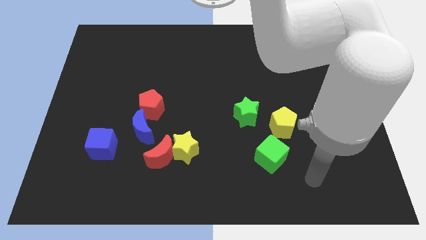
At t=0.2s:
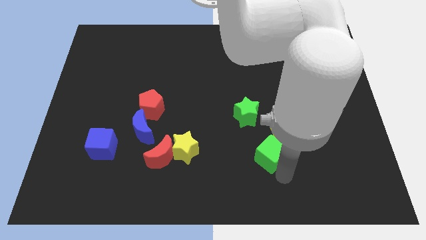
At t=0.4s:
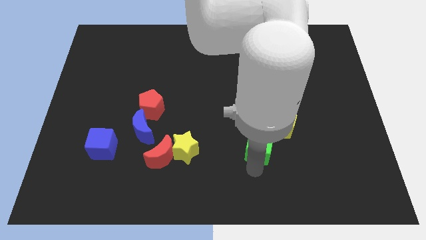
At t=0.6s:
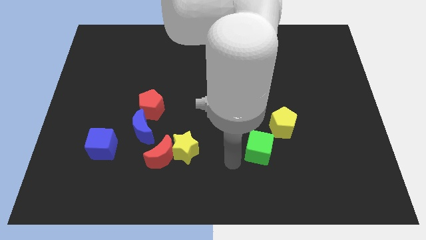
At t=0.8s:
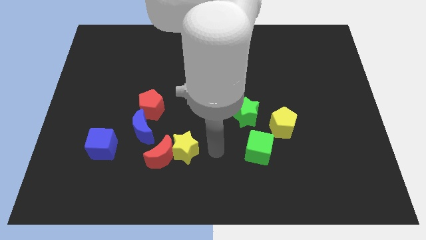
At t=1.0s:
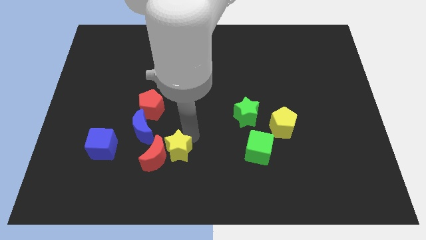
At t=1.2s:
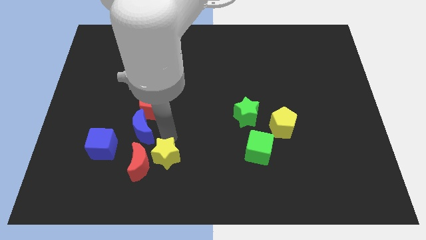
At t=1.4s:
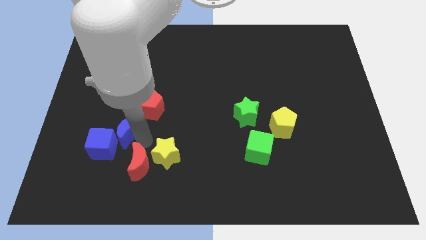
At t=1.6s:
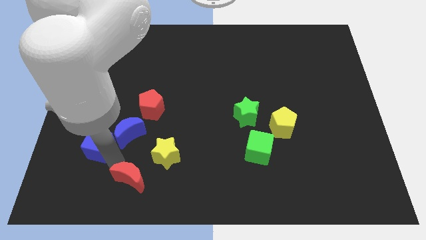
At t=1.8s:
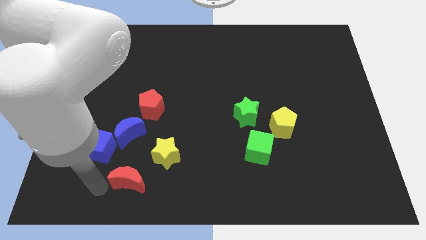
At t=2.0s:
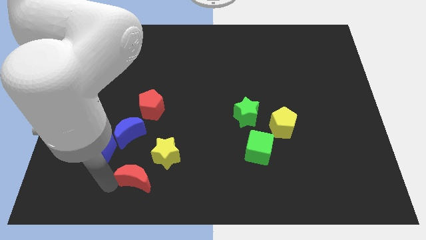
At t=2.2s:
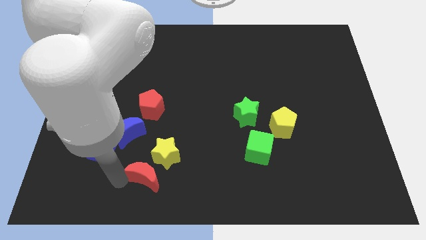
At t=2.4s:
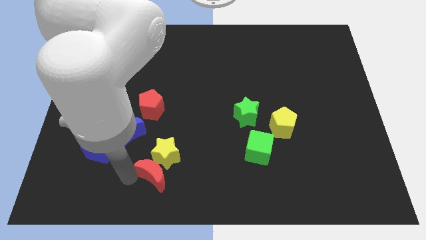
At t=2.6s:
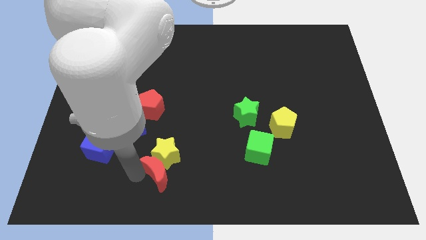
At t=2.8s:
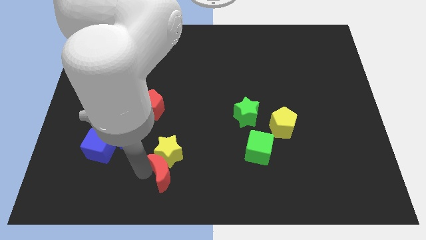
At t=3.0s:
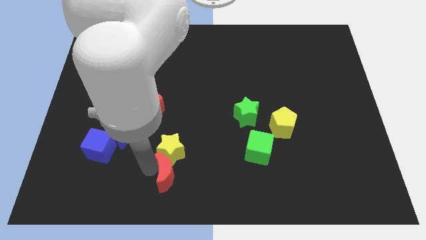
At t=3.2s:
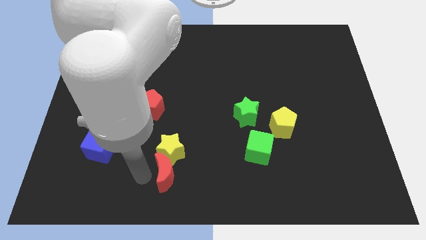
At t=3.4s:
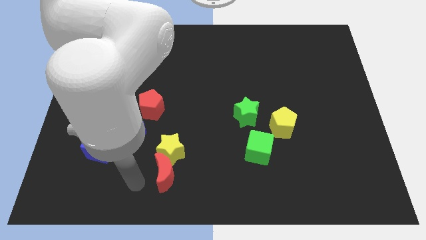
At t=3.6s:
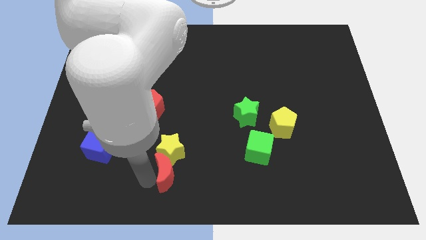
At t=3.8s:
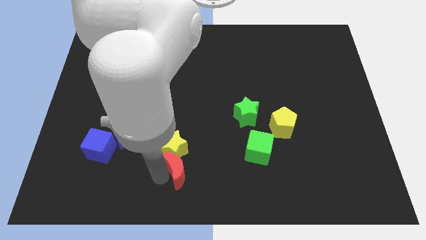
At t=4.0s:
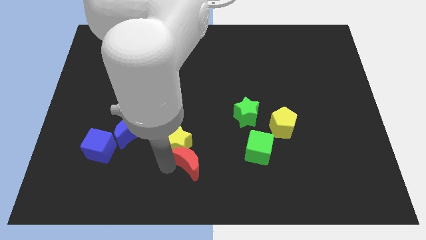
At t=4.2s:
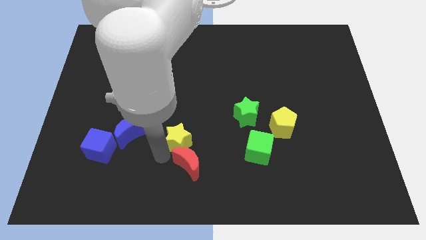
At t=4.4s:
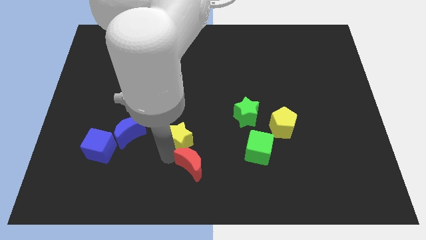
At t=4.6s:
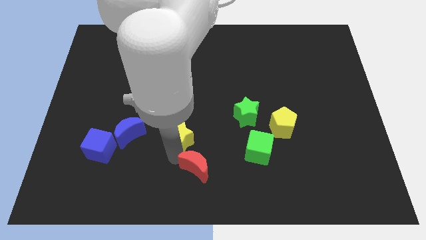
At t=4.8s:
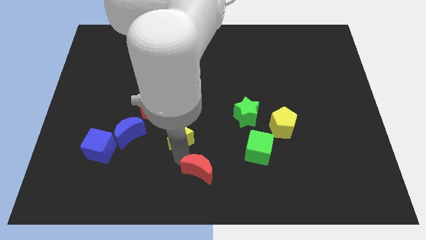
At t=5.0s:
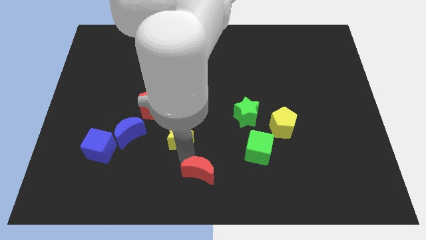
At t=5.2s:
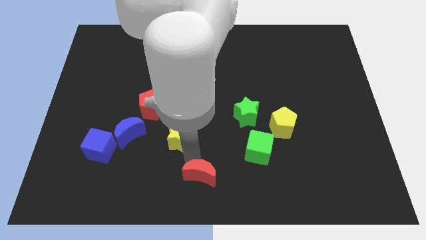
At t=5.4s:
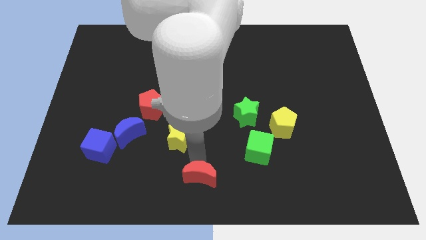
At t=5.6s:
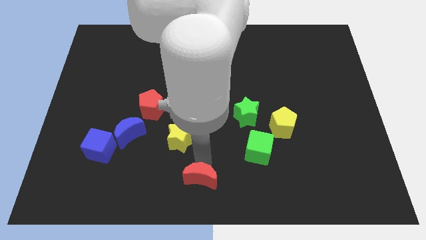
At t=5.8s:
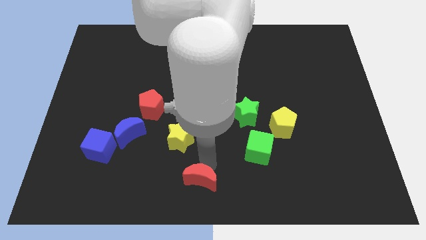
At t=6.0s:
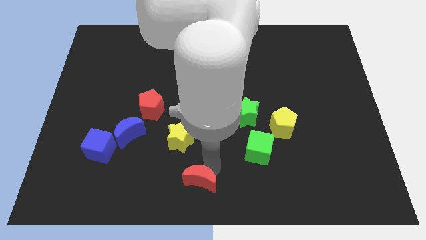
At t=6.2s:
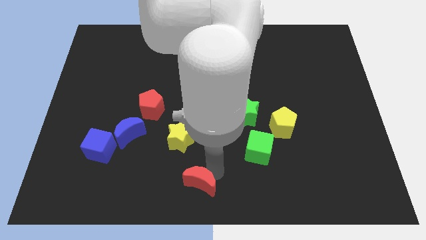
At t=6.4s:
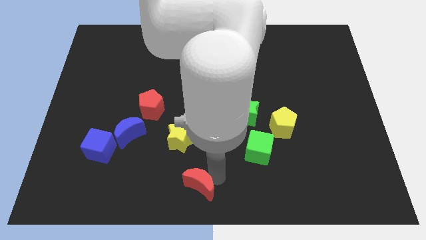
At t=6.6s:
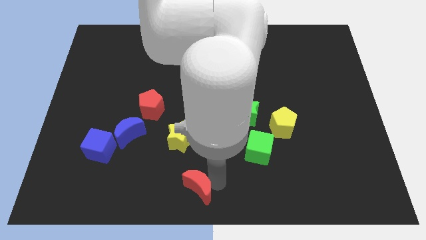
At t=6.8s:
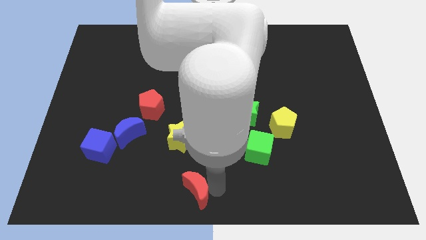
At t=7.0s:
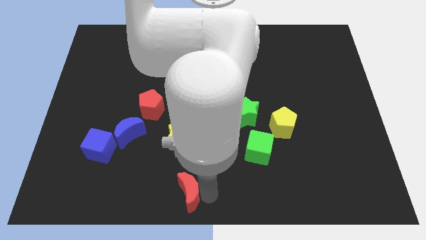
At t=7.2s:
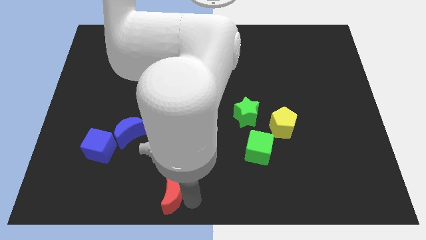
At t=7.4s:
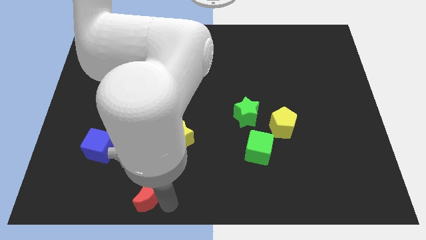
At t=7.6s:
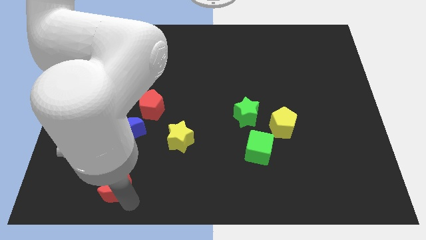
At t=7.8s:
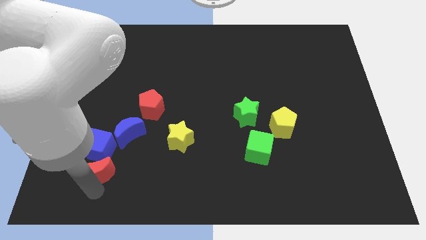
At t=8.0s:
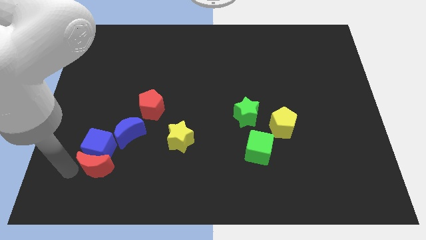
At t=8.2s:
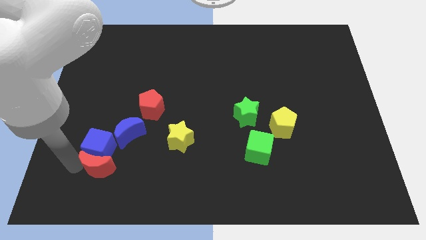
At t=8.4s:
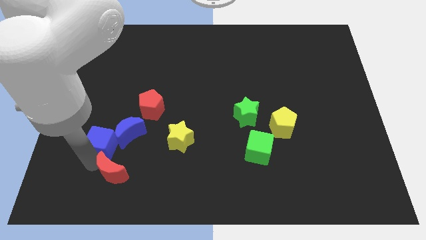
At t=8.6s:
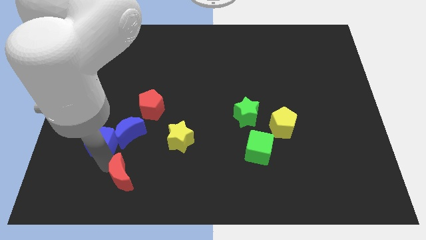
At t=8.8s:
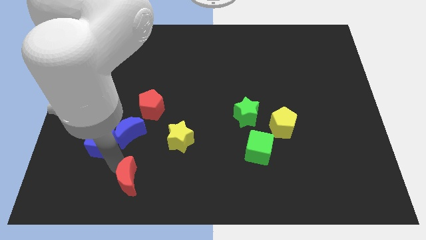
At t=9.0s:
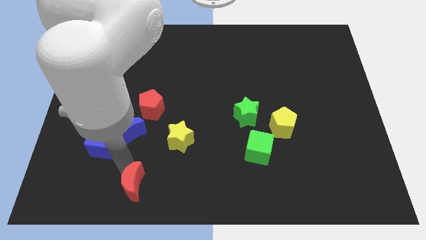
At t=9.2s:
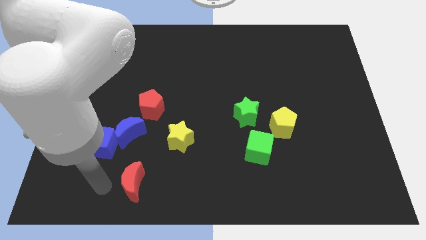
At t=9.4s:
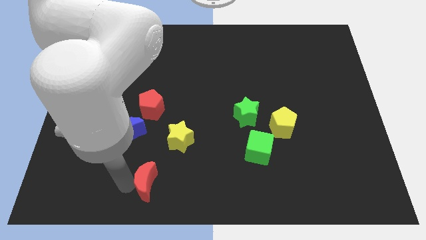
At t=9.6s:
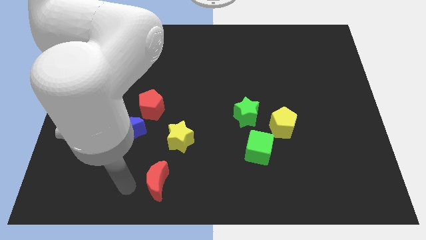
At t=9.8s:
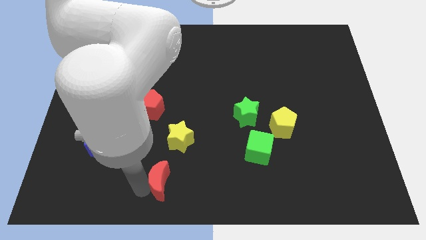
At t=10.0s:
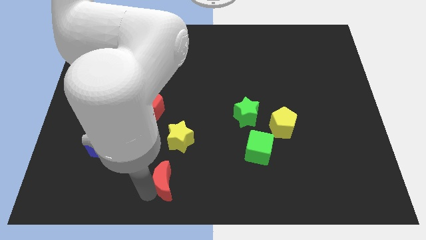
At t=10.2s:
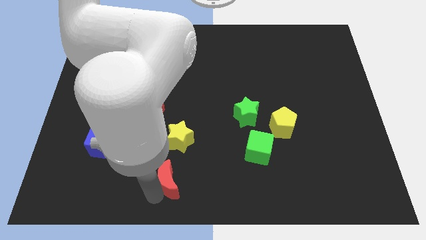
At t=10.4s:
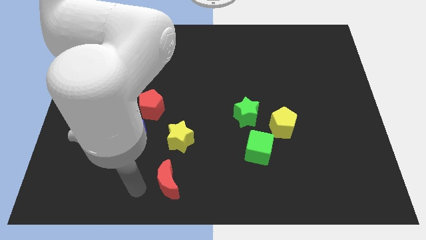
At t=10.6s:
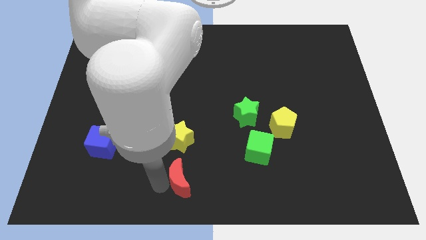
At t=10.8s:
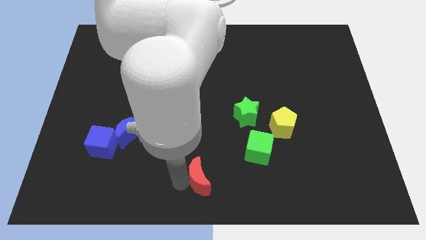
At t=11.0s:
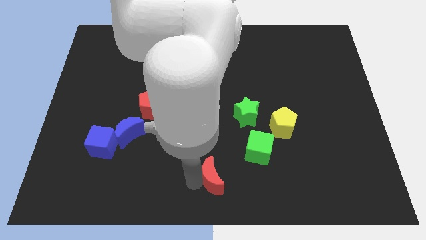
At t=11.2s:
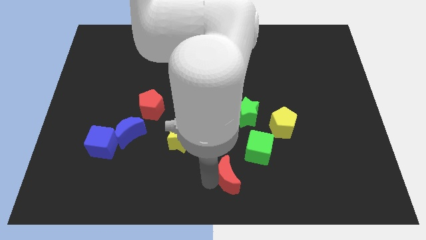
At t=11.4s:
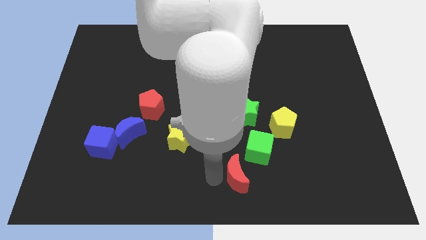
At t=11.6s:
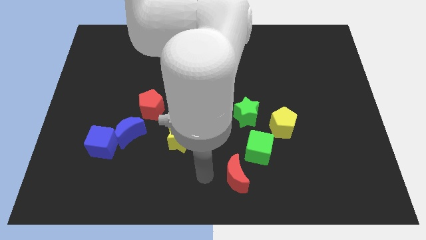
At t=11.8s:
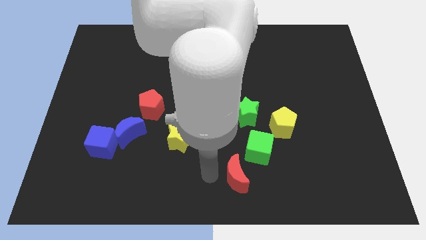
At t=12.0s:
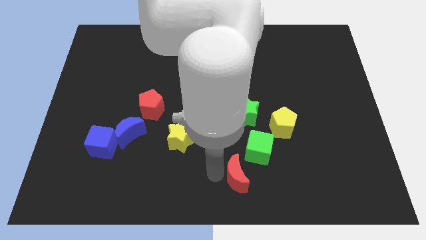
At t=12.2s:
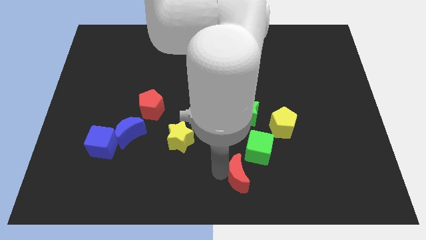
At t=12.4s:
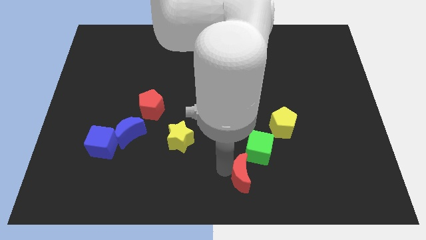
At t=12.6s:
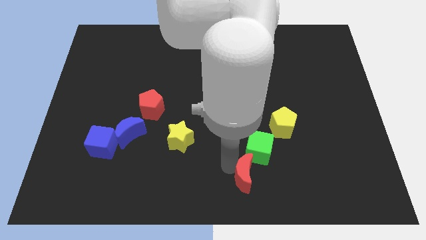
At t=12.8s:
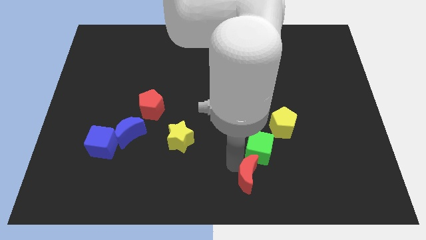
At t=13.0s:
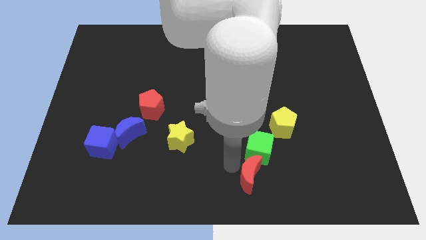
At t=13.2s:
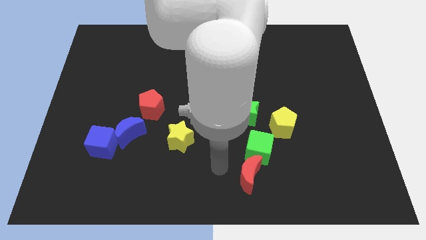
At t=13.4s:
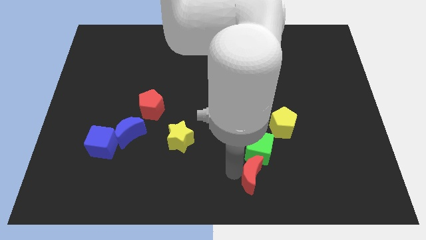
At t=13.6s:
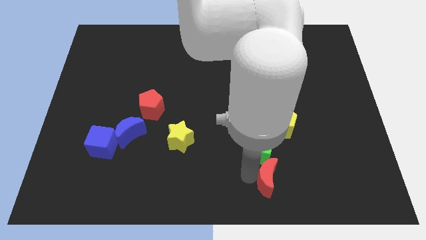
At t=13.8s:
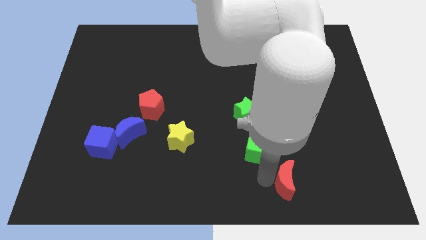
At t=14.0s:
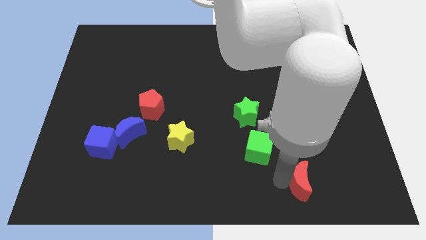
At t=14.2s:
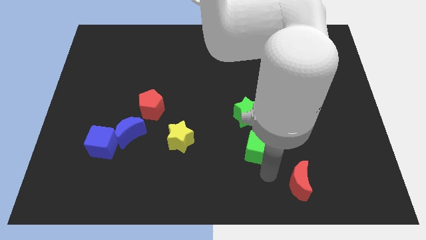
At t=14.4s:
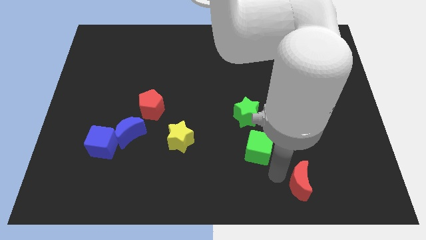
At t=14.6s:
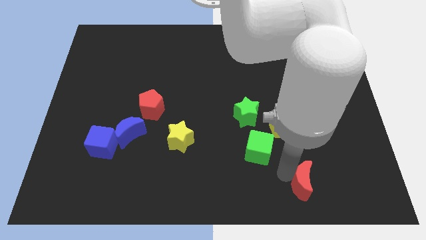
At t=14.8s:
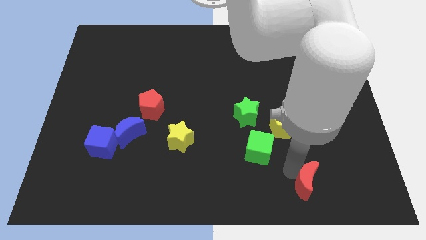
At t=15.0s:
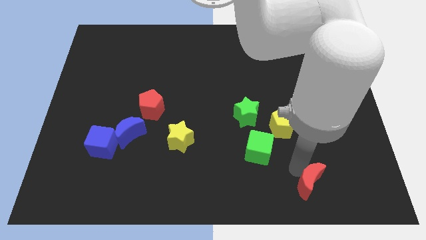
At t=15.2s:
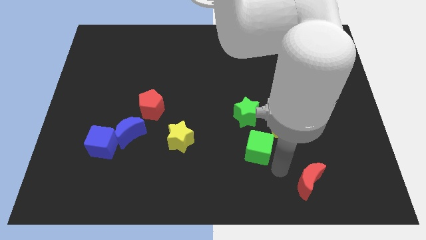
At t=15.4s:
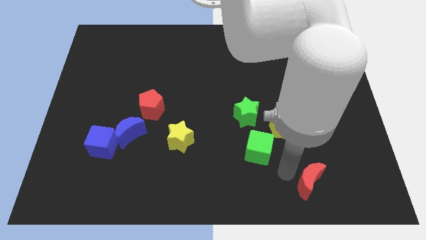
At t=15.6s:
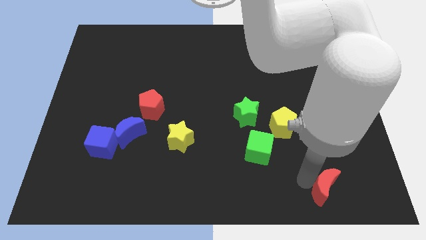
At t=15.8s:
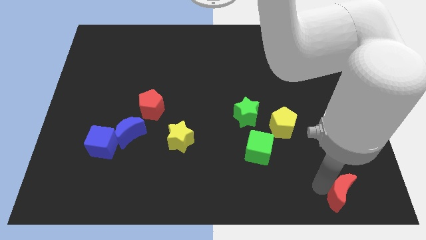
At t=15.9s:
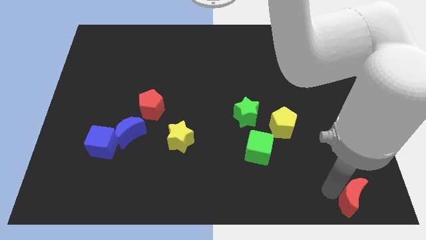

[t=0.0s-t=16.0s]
move the red moon to the bottom right
